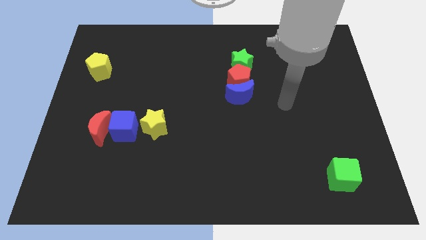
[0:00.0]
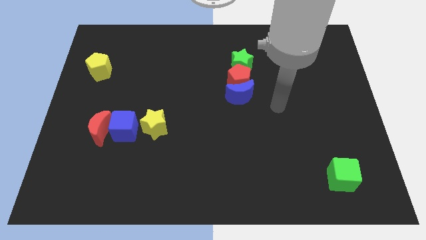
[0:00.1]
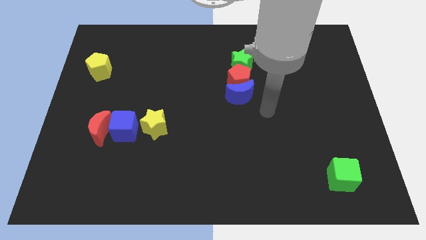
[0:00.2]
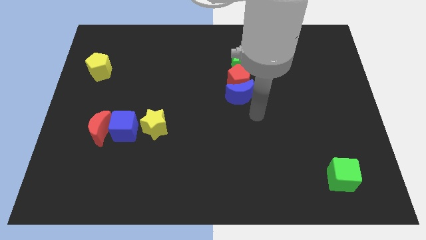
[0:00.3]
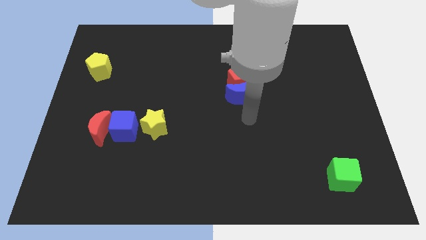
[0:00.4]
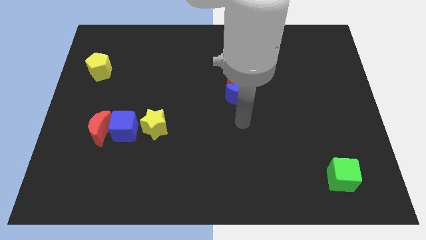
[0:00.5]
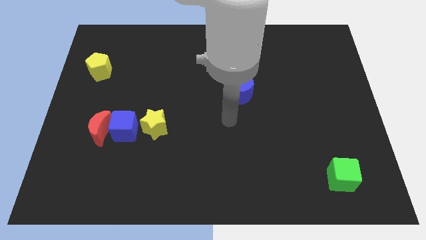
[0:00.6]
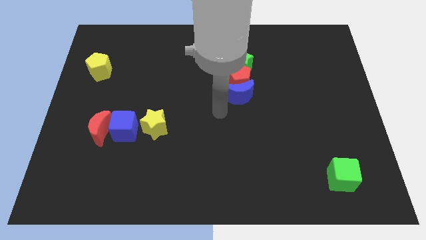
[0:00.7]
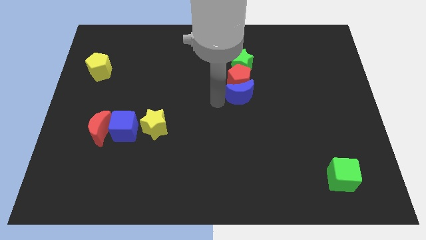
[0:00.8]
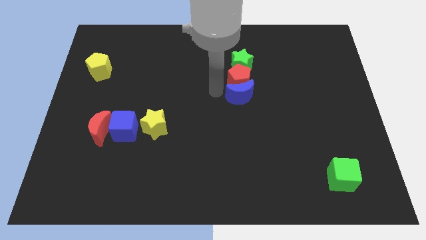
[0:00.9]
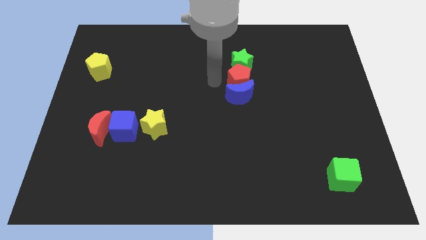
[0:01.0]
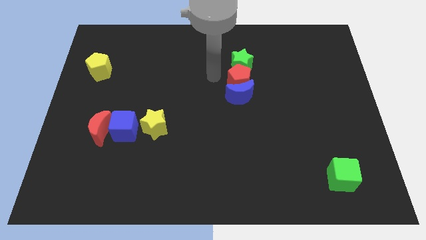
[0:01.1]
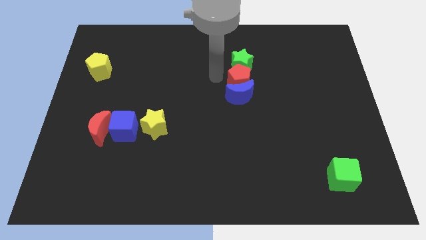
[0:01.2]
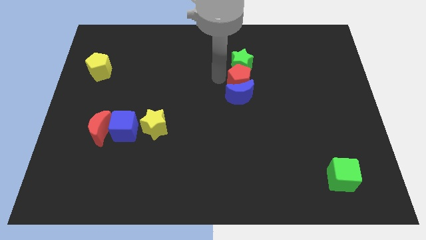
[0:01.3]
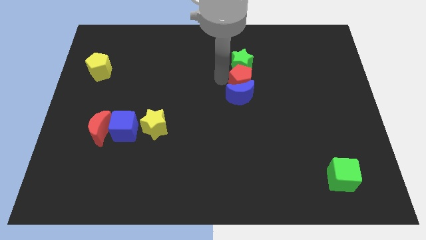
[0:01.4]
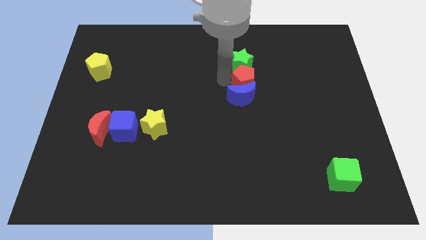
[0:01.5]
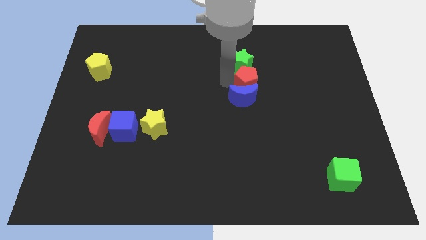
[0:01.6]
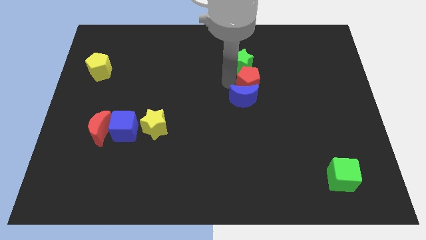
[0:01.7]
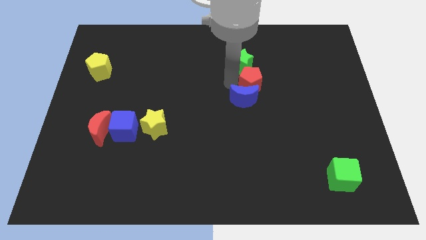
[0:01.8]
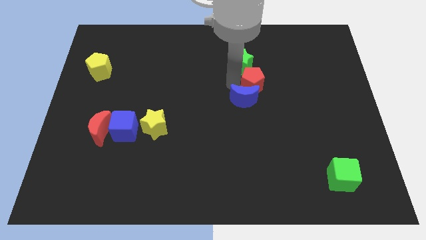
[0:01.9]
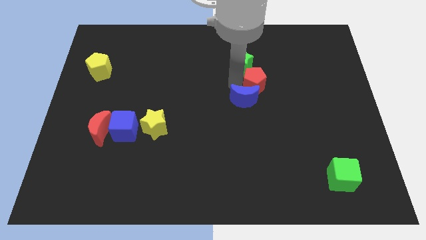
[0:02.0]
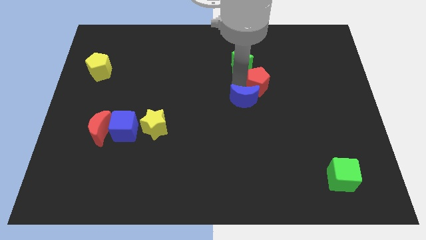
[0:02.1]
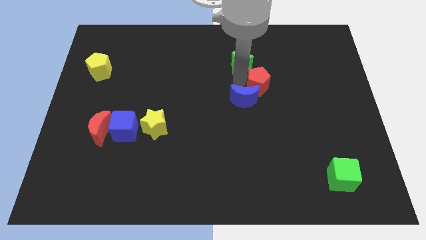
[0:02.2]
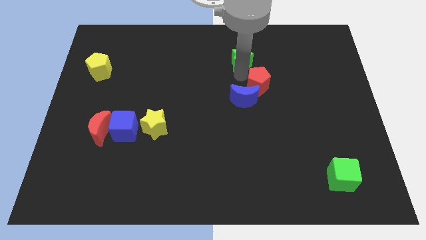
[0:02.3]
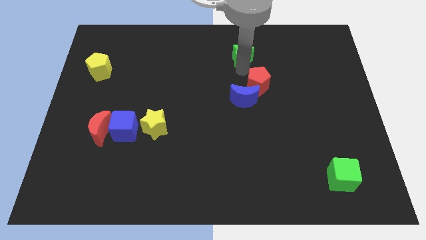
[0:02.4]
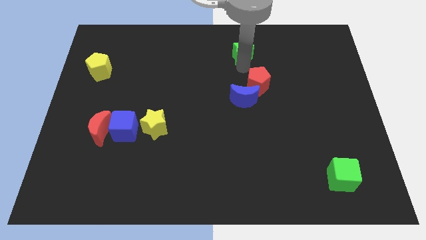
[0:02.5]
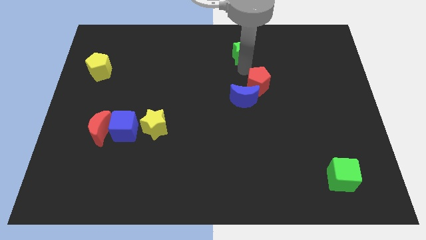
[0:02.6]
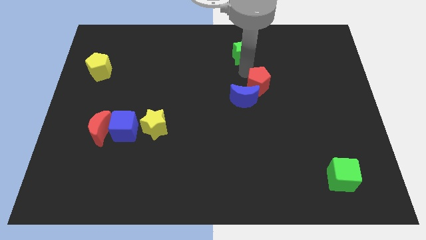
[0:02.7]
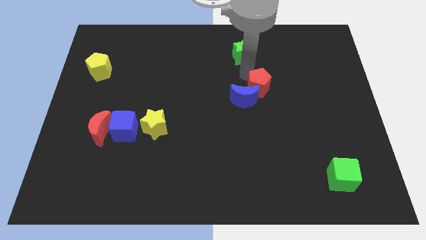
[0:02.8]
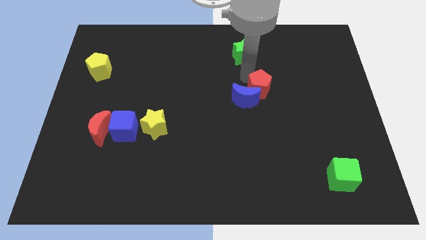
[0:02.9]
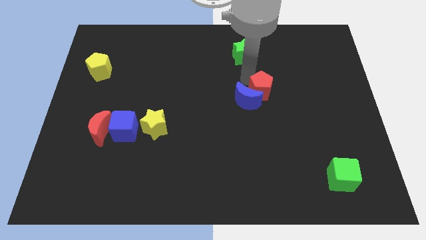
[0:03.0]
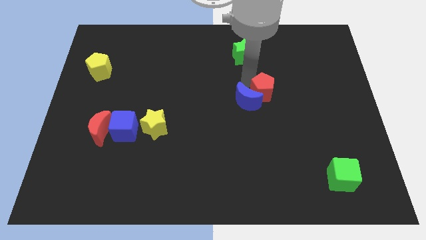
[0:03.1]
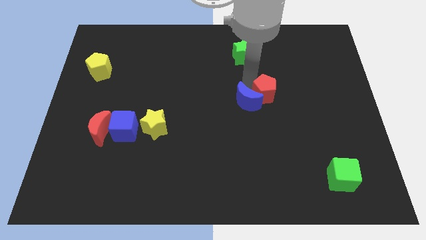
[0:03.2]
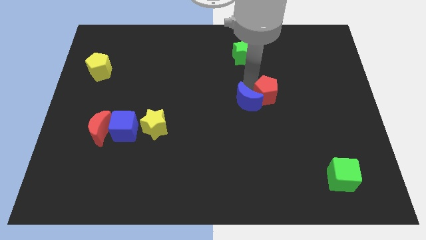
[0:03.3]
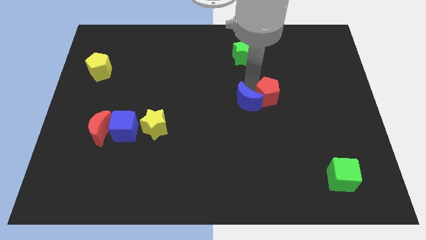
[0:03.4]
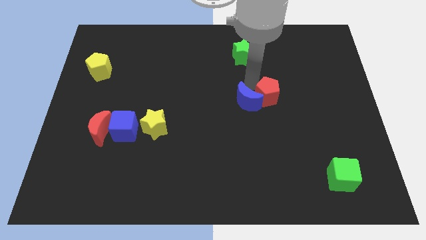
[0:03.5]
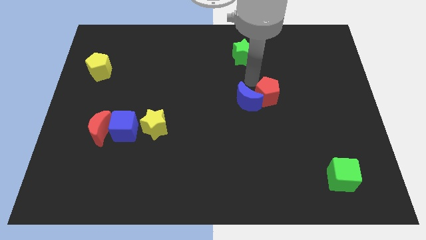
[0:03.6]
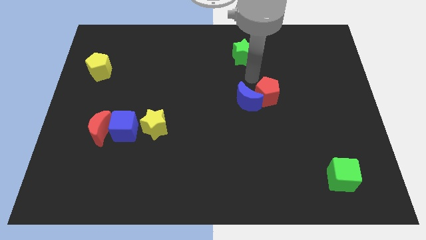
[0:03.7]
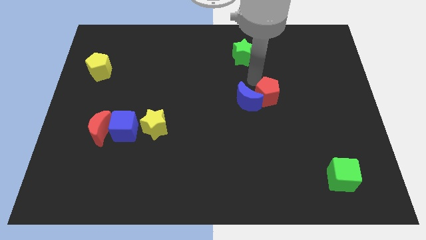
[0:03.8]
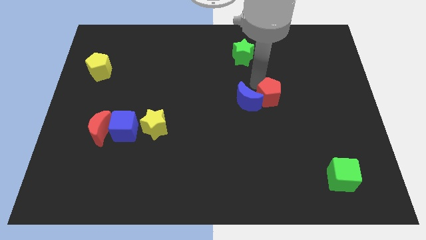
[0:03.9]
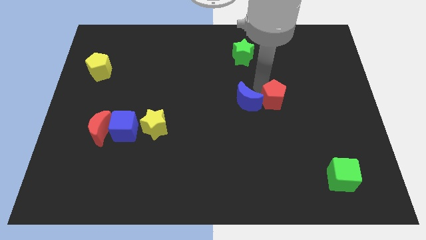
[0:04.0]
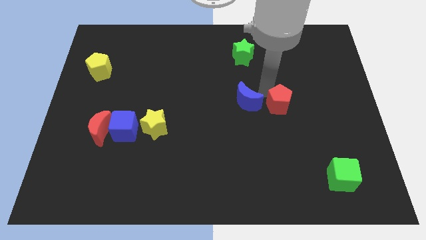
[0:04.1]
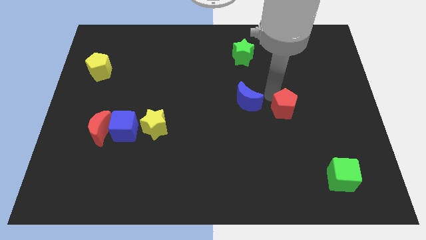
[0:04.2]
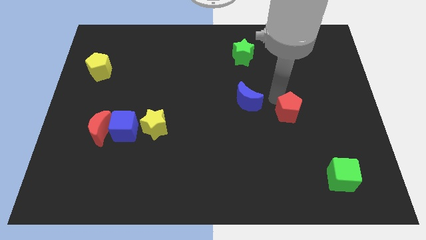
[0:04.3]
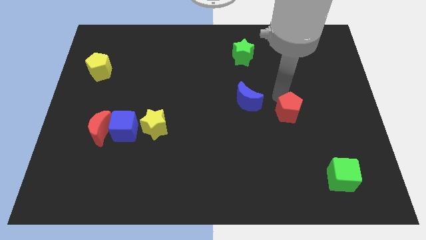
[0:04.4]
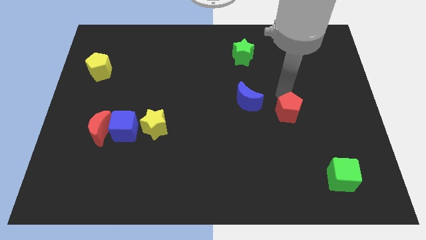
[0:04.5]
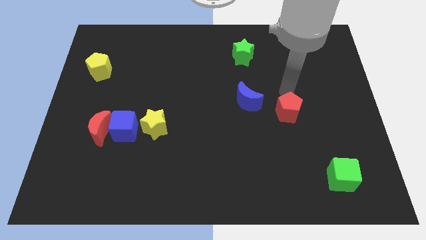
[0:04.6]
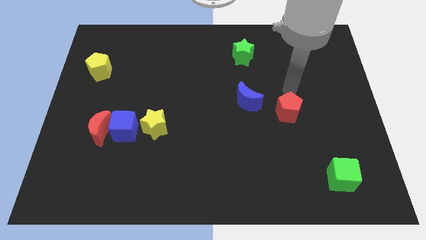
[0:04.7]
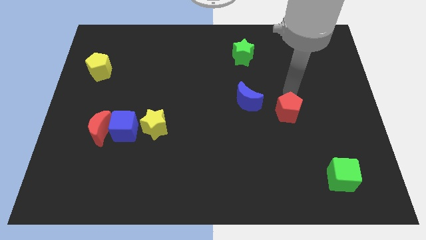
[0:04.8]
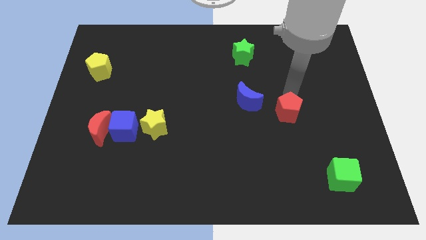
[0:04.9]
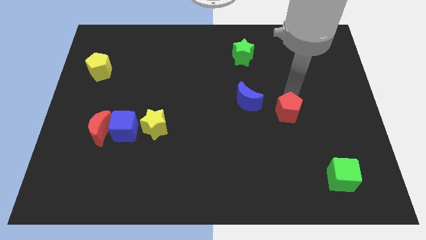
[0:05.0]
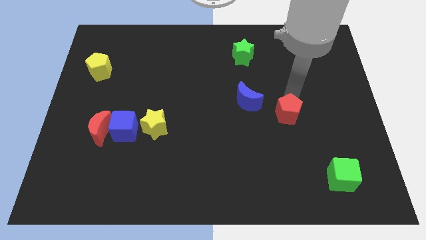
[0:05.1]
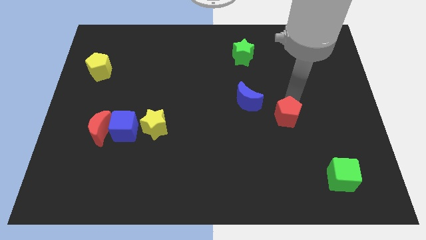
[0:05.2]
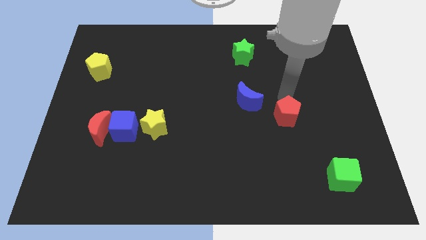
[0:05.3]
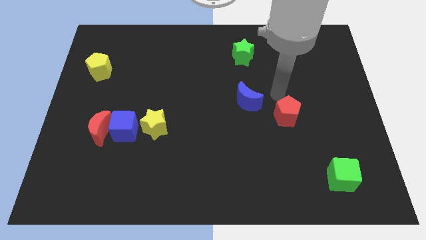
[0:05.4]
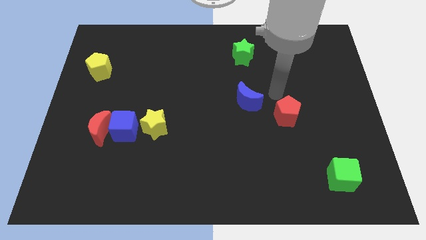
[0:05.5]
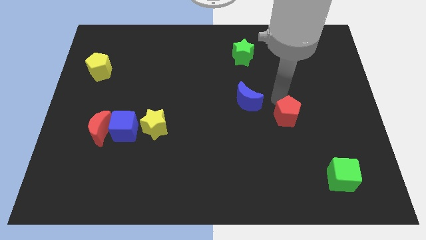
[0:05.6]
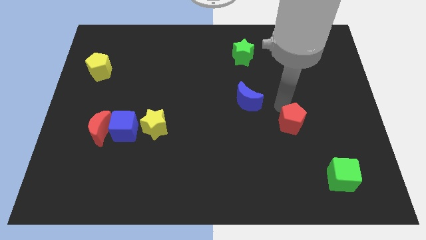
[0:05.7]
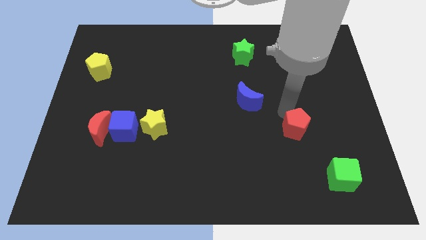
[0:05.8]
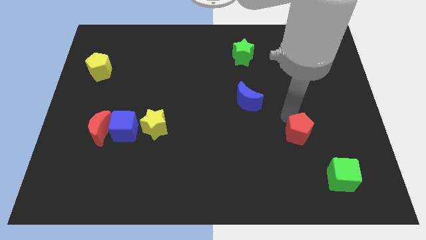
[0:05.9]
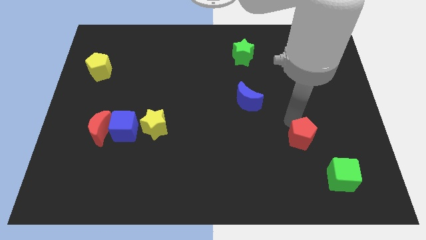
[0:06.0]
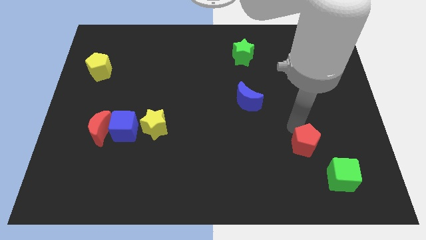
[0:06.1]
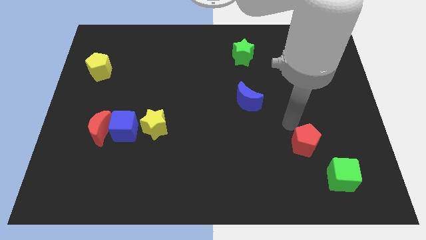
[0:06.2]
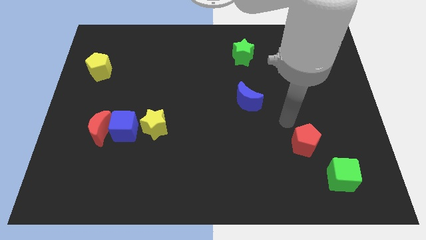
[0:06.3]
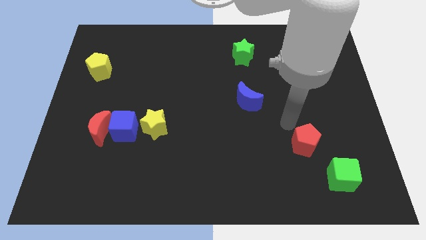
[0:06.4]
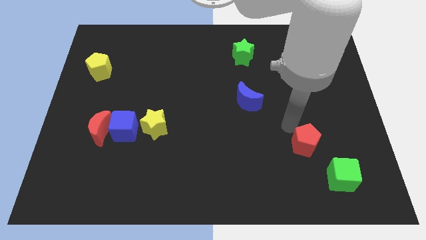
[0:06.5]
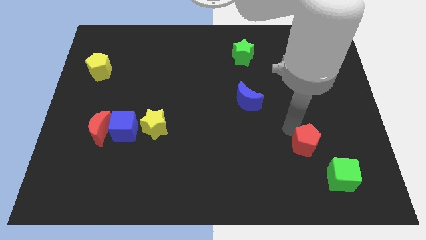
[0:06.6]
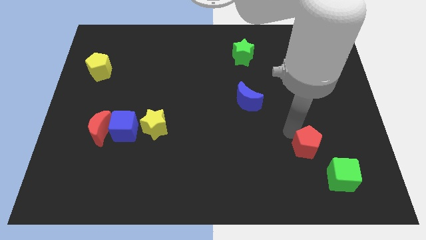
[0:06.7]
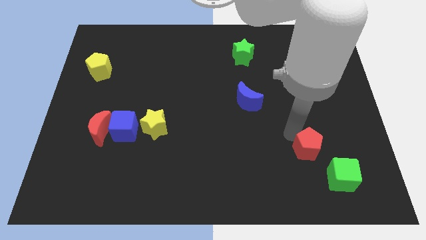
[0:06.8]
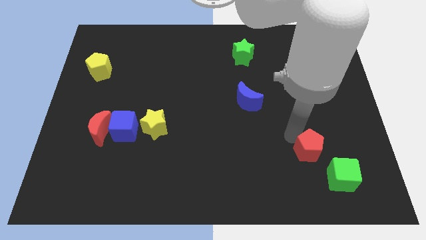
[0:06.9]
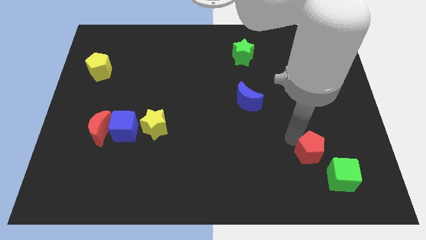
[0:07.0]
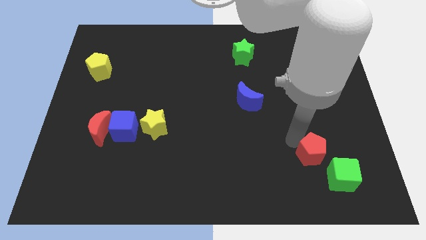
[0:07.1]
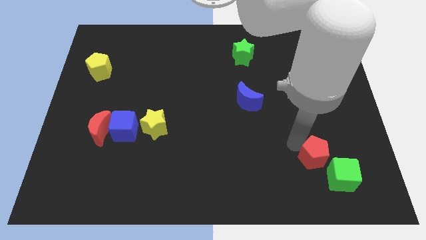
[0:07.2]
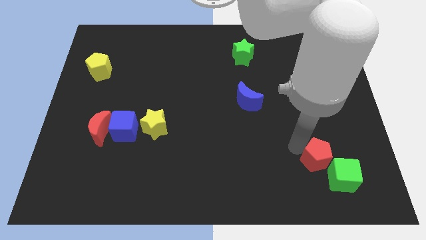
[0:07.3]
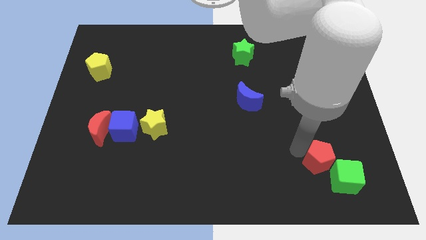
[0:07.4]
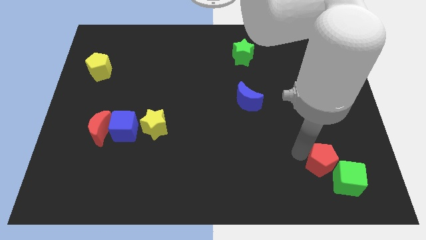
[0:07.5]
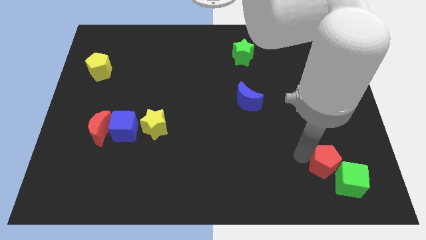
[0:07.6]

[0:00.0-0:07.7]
push the red pentagon to the green cube
